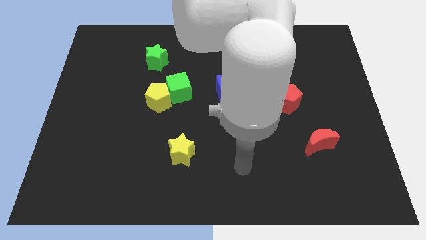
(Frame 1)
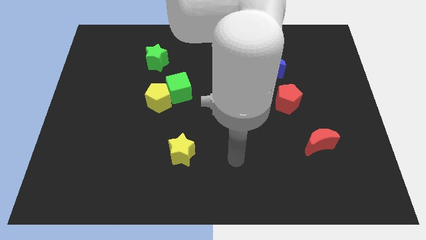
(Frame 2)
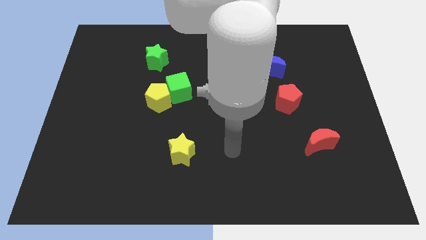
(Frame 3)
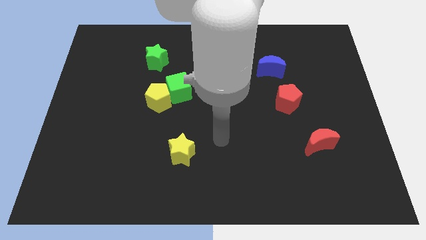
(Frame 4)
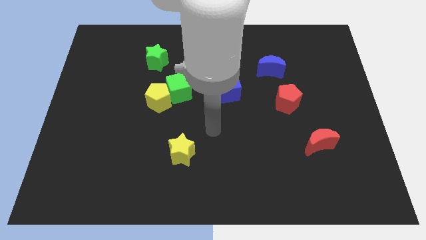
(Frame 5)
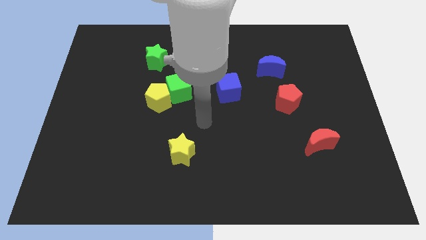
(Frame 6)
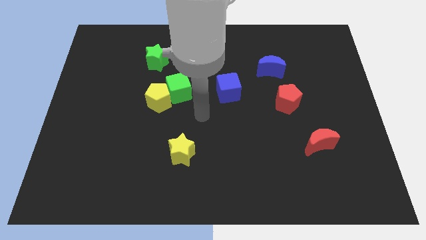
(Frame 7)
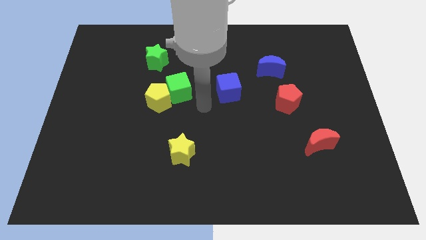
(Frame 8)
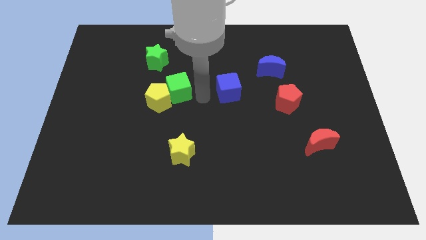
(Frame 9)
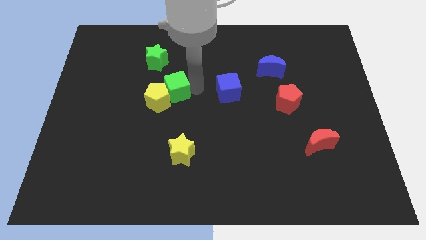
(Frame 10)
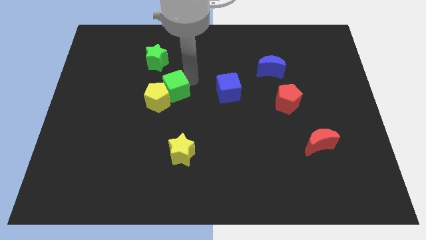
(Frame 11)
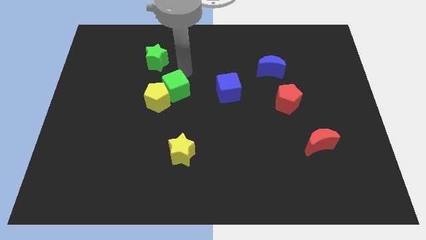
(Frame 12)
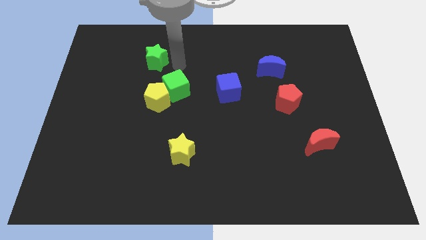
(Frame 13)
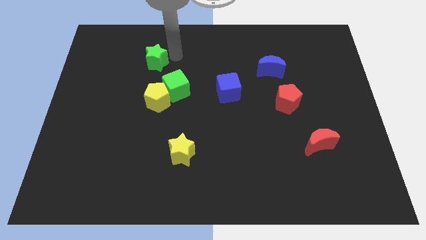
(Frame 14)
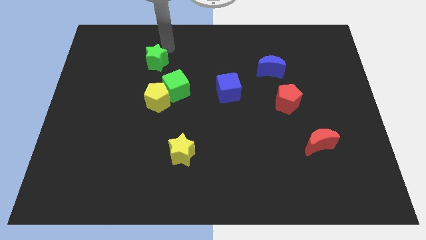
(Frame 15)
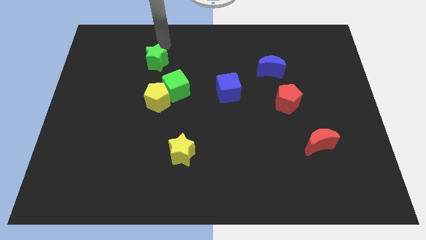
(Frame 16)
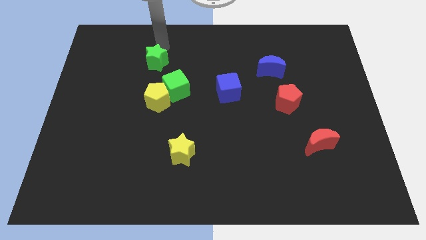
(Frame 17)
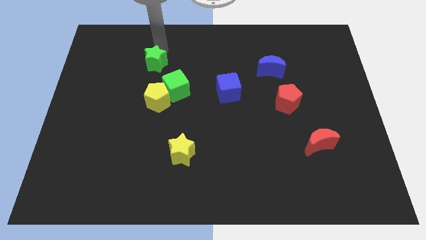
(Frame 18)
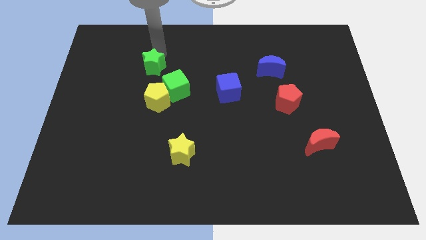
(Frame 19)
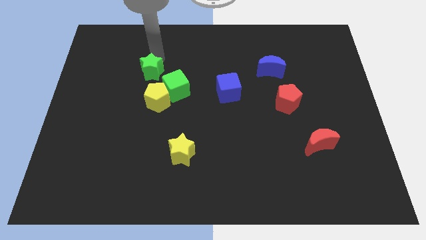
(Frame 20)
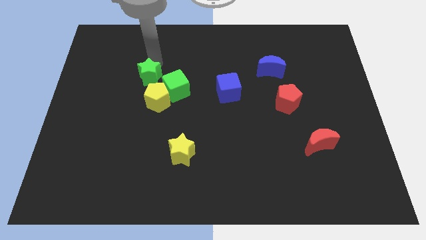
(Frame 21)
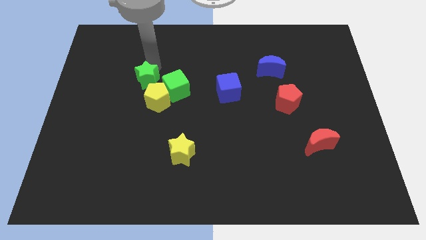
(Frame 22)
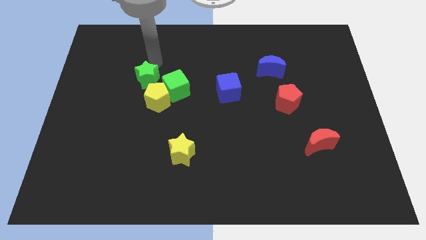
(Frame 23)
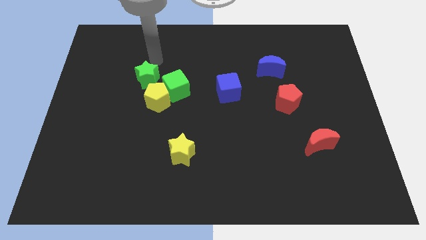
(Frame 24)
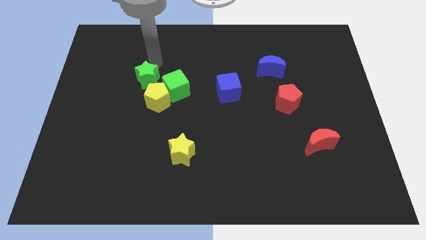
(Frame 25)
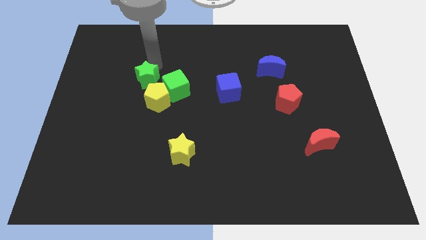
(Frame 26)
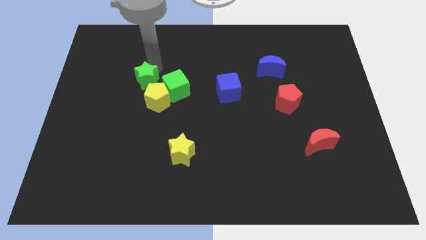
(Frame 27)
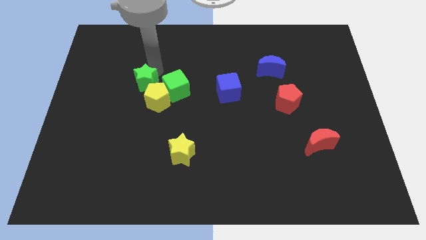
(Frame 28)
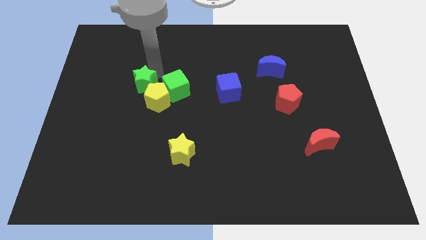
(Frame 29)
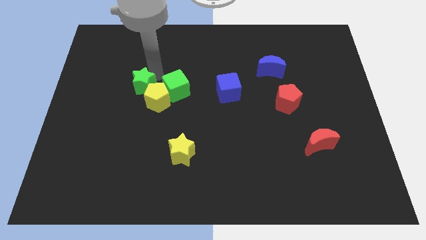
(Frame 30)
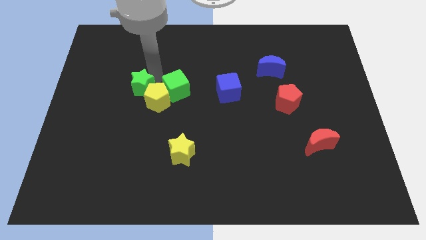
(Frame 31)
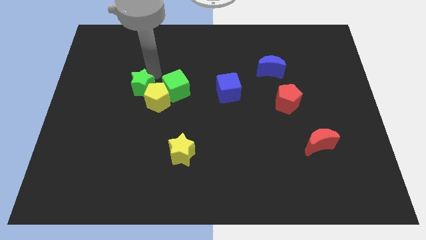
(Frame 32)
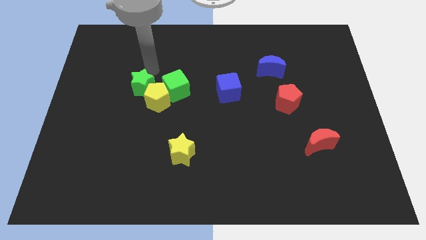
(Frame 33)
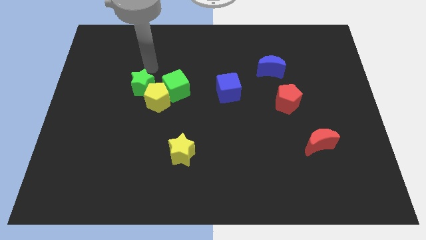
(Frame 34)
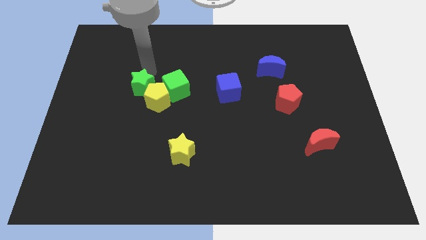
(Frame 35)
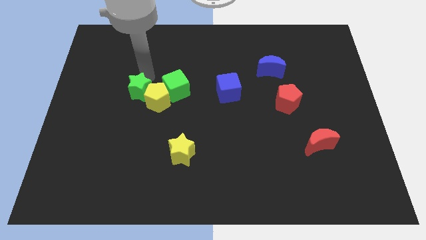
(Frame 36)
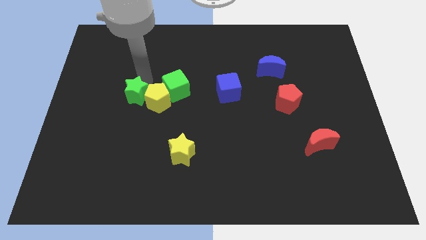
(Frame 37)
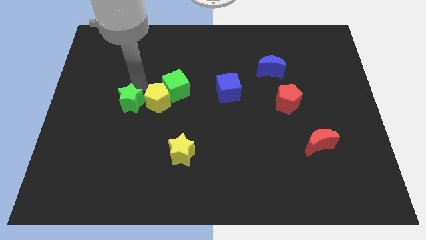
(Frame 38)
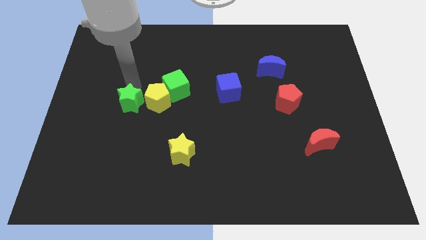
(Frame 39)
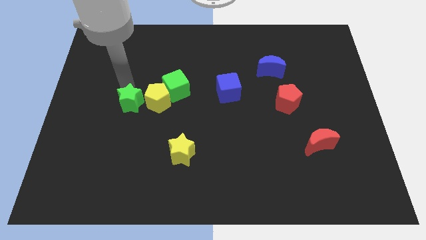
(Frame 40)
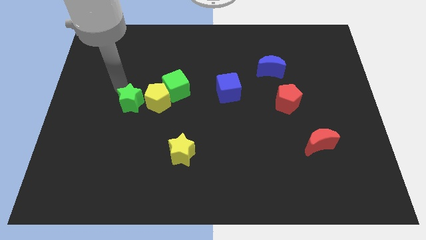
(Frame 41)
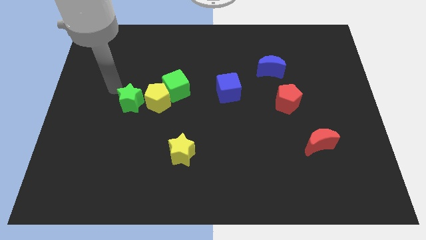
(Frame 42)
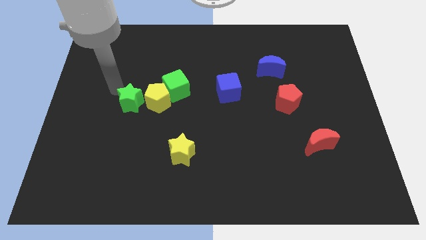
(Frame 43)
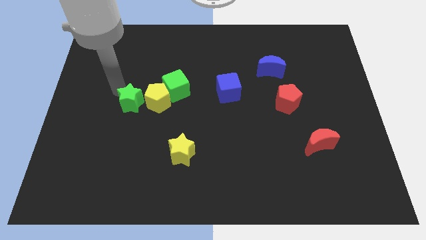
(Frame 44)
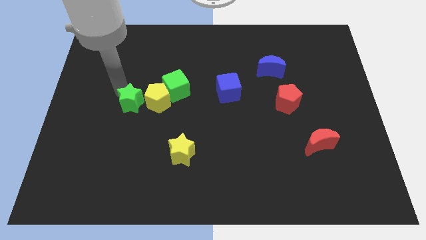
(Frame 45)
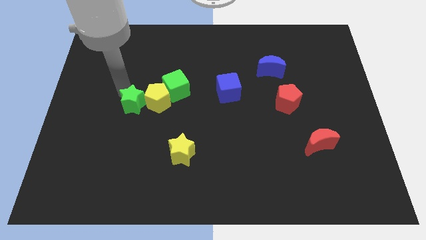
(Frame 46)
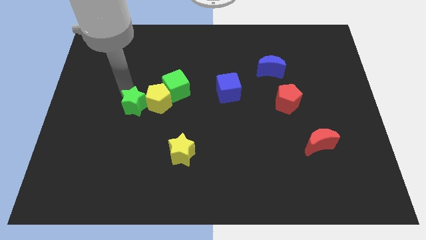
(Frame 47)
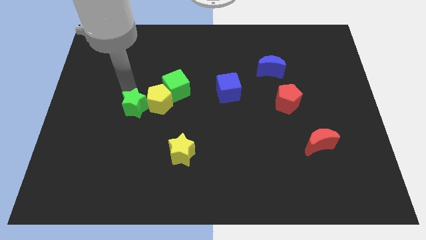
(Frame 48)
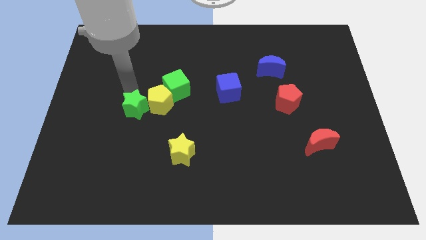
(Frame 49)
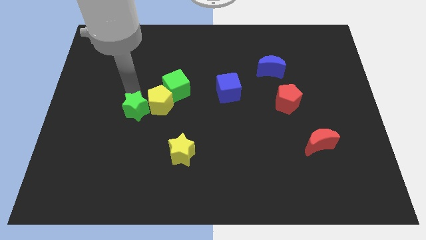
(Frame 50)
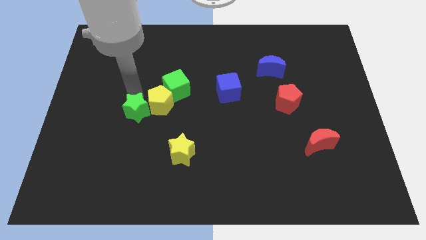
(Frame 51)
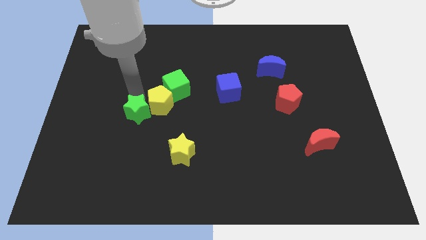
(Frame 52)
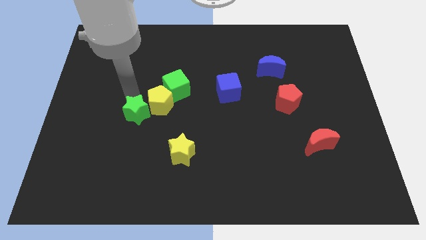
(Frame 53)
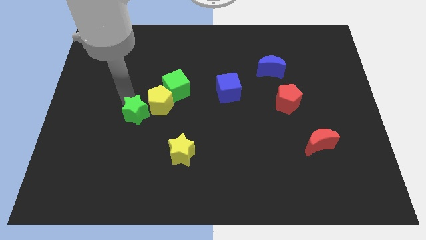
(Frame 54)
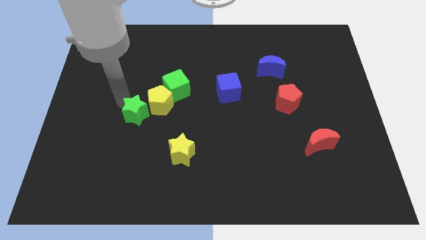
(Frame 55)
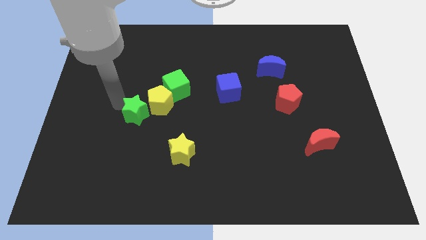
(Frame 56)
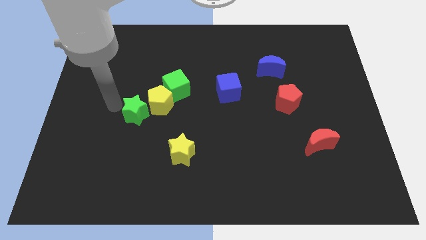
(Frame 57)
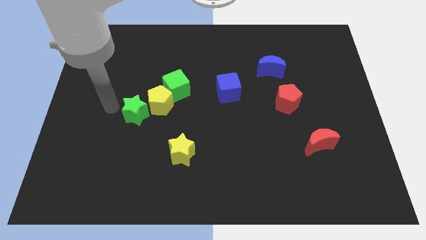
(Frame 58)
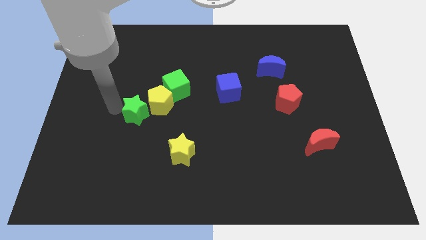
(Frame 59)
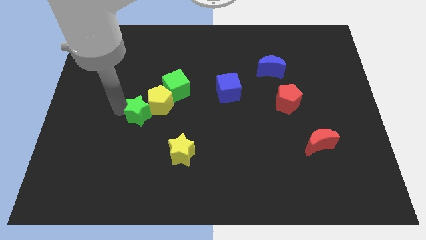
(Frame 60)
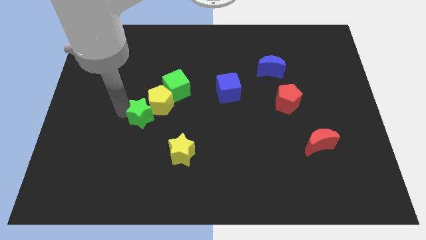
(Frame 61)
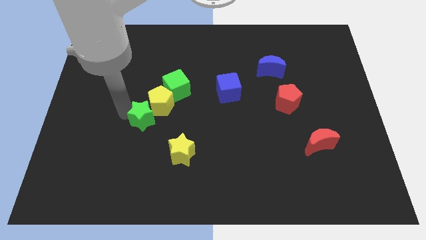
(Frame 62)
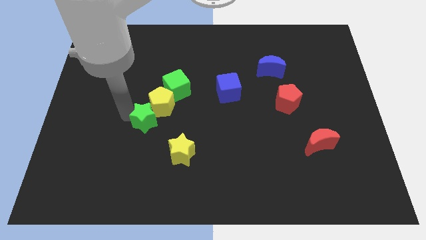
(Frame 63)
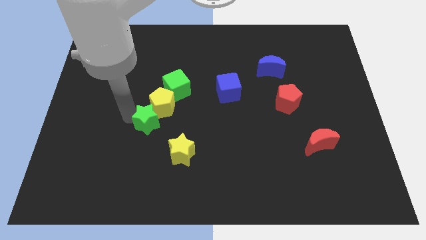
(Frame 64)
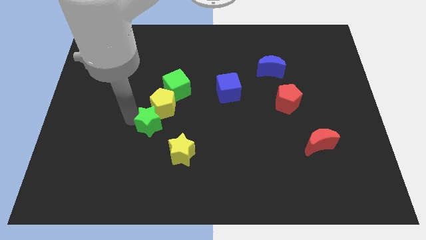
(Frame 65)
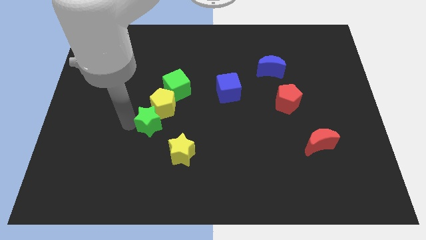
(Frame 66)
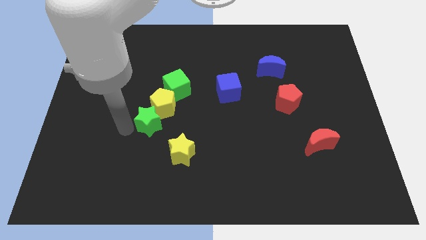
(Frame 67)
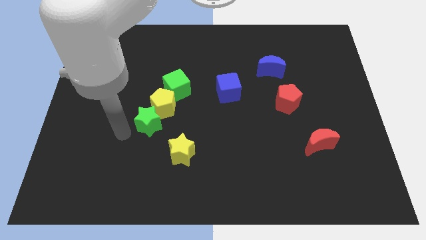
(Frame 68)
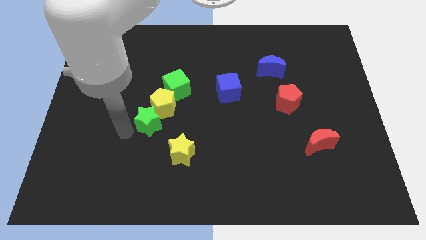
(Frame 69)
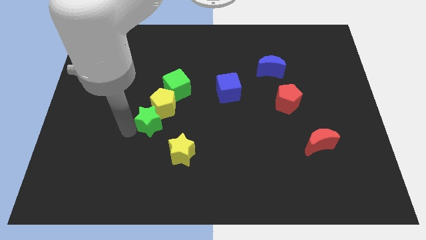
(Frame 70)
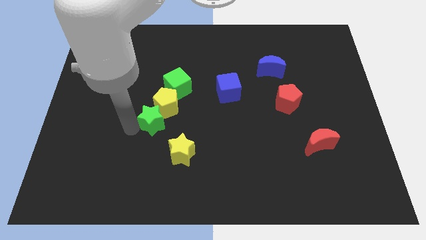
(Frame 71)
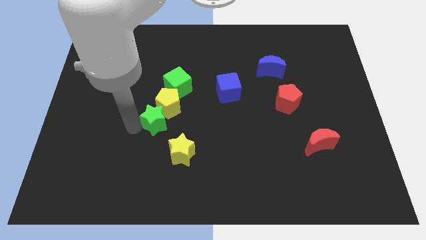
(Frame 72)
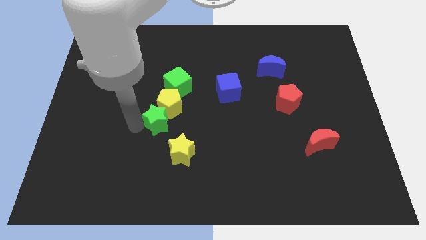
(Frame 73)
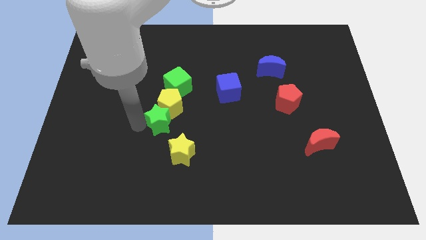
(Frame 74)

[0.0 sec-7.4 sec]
move the green star downwards and then right a little bit
